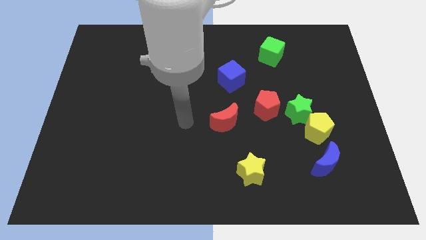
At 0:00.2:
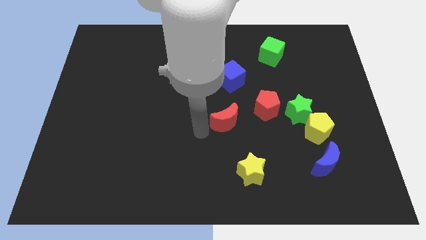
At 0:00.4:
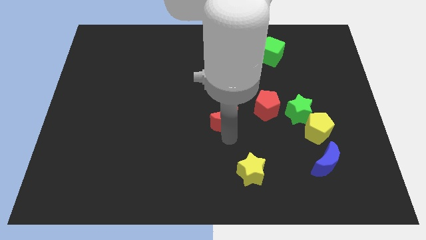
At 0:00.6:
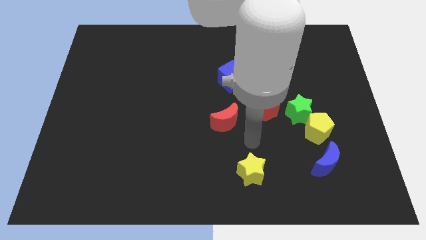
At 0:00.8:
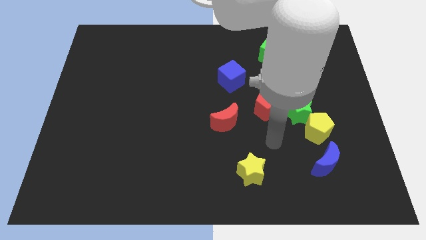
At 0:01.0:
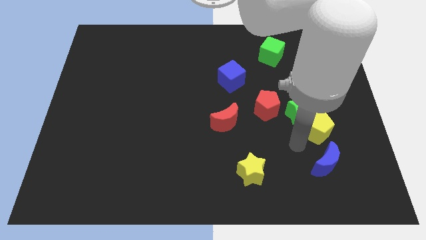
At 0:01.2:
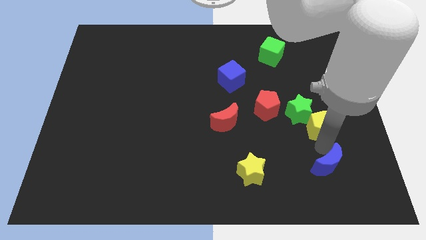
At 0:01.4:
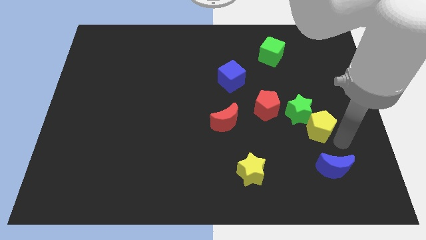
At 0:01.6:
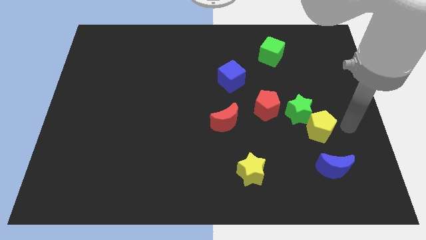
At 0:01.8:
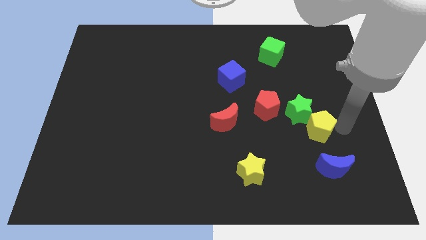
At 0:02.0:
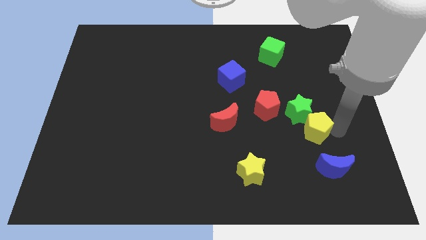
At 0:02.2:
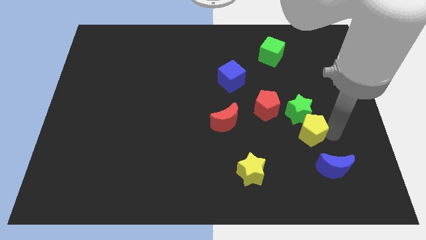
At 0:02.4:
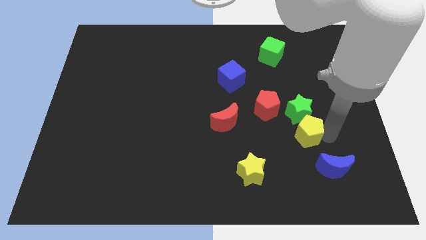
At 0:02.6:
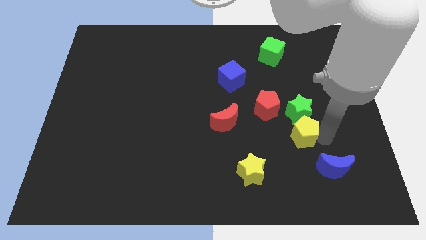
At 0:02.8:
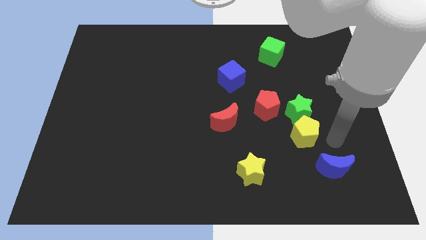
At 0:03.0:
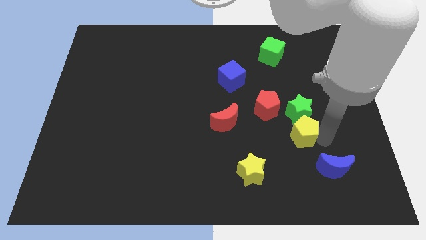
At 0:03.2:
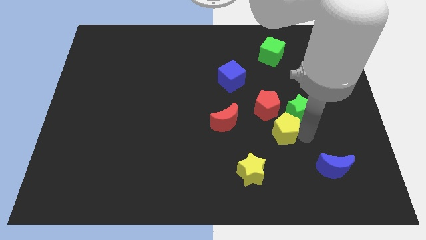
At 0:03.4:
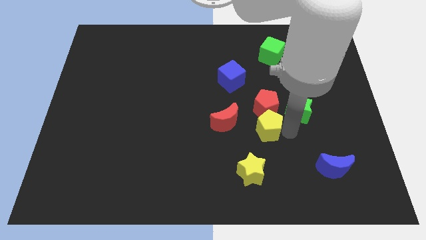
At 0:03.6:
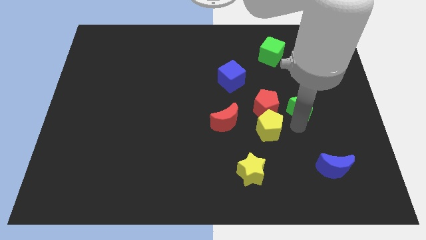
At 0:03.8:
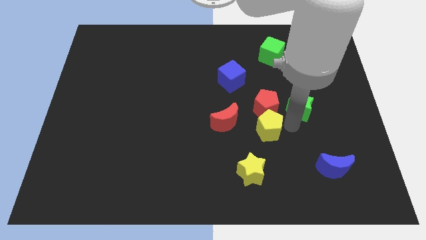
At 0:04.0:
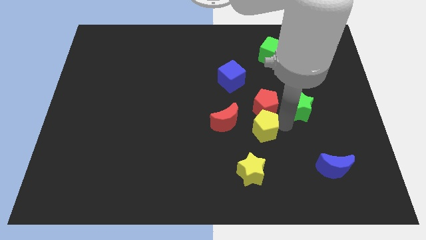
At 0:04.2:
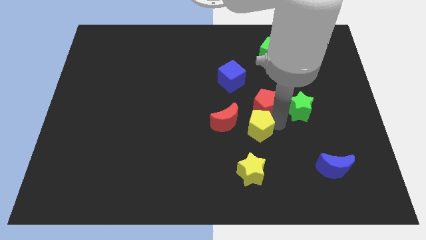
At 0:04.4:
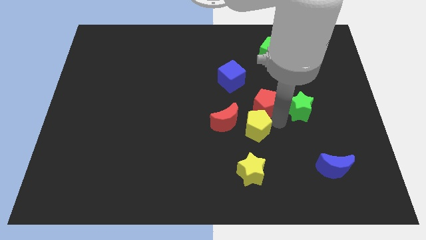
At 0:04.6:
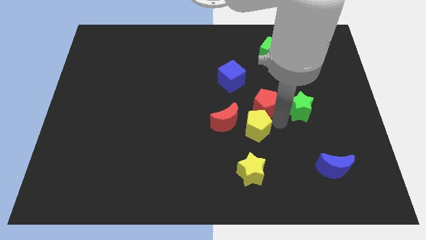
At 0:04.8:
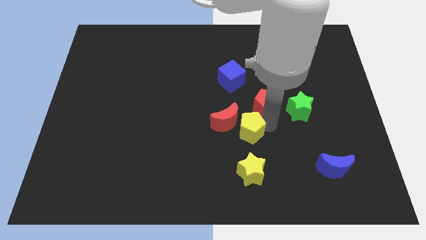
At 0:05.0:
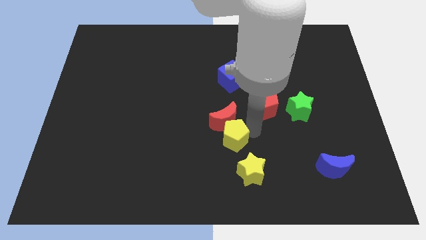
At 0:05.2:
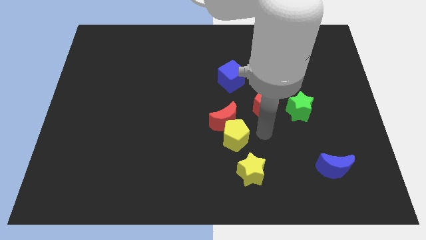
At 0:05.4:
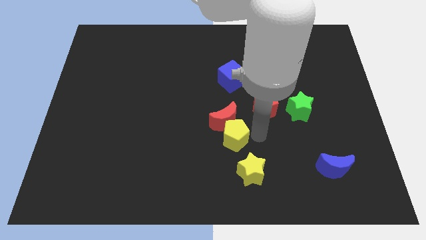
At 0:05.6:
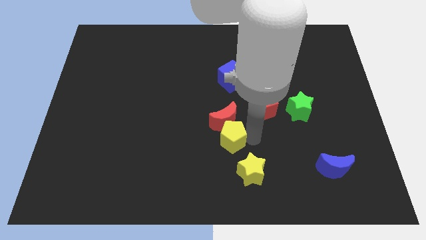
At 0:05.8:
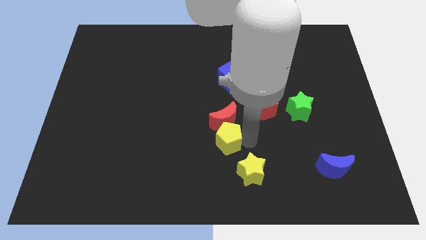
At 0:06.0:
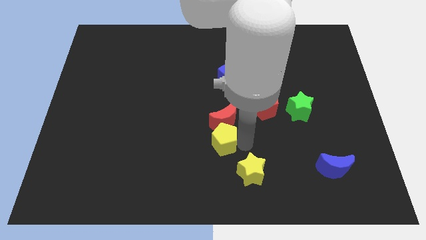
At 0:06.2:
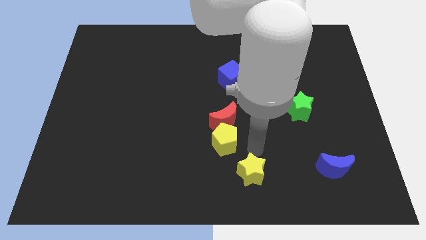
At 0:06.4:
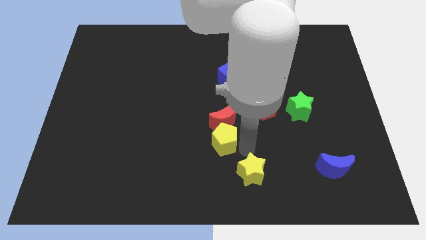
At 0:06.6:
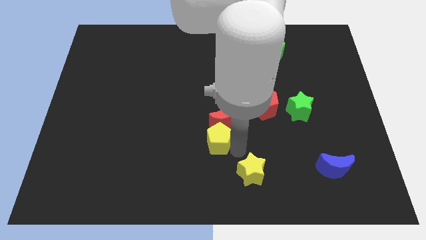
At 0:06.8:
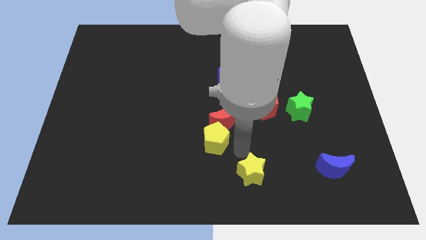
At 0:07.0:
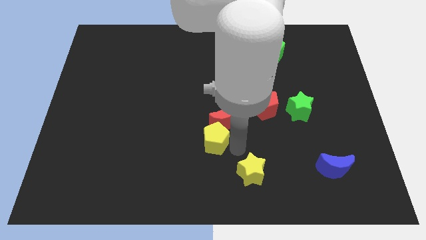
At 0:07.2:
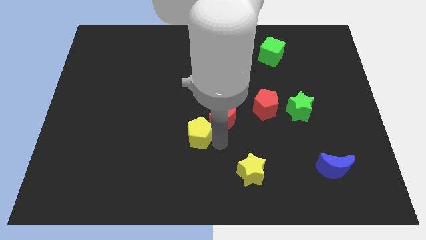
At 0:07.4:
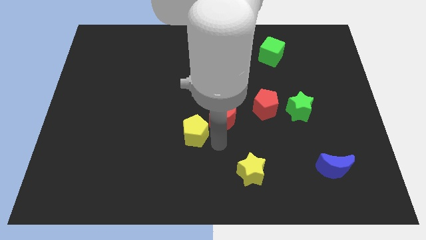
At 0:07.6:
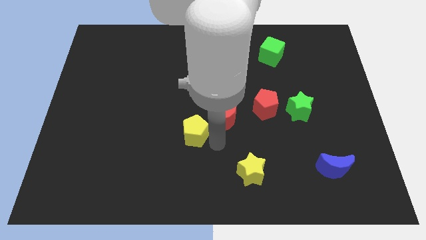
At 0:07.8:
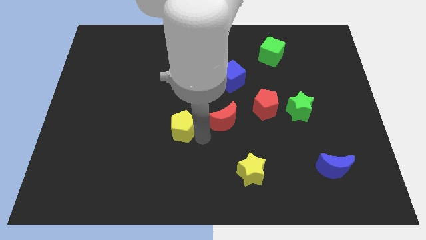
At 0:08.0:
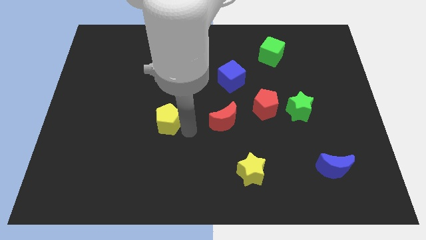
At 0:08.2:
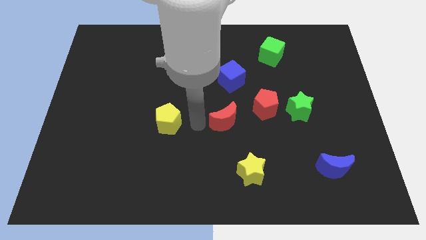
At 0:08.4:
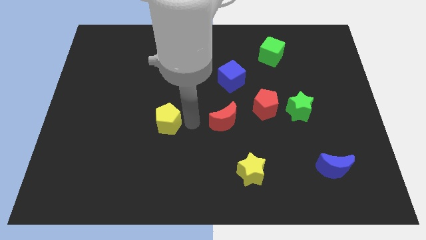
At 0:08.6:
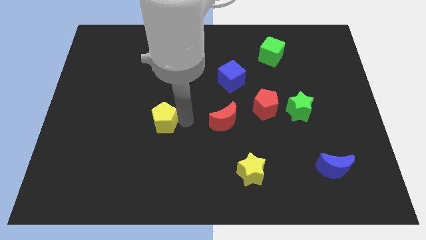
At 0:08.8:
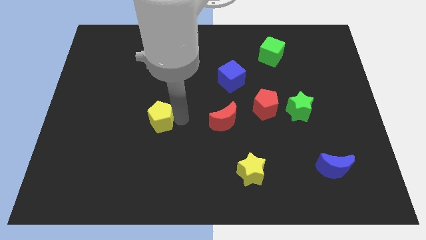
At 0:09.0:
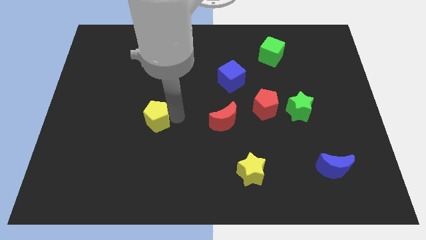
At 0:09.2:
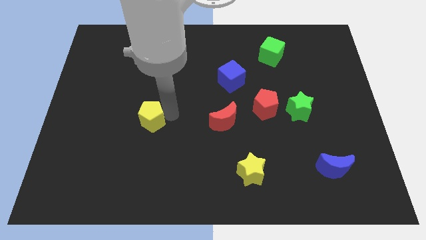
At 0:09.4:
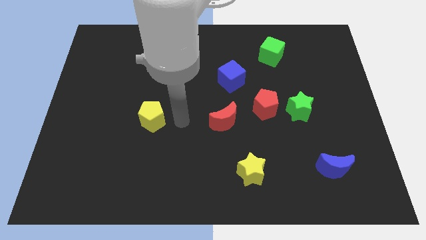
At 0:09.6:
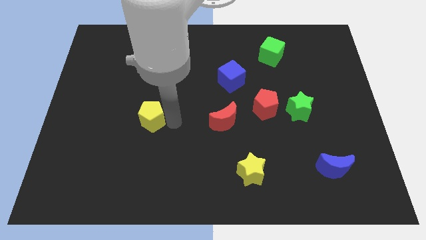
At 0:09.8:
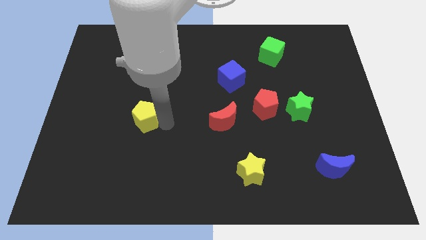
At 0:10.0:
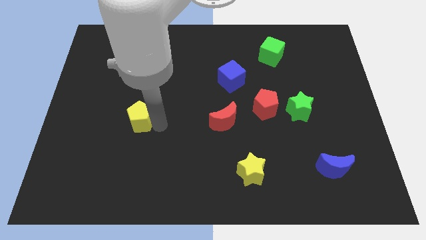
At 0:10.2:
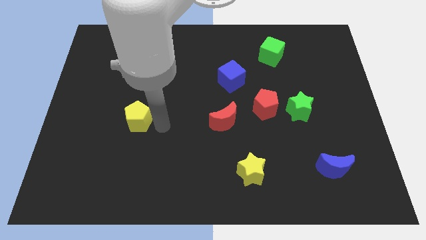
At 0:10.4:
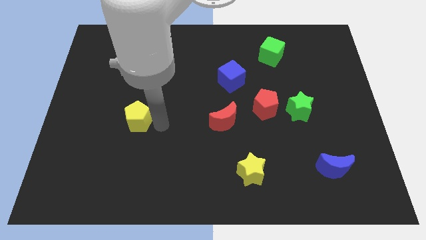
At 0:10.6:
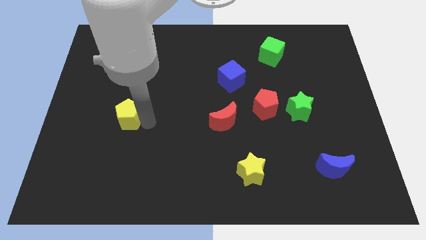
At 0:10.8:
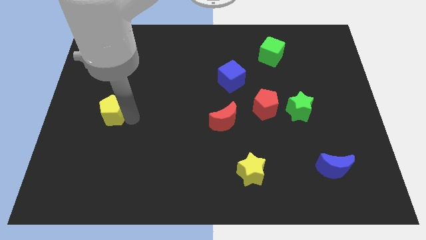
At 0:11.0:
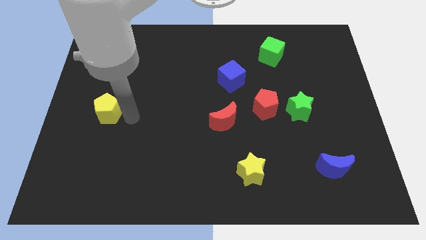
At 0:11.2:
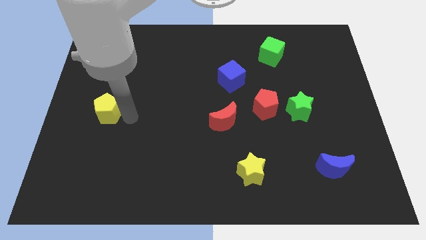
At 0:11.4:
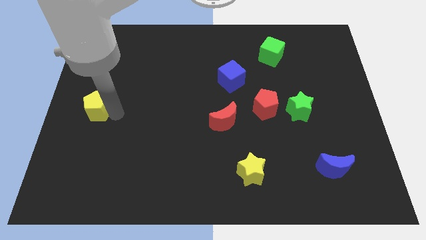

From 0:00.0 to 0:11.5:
move the yellow pentagon to the center left
